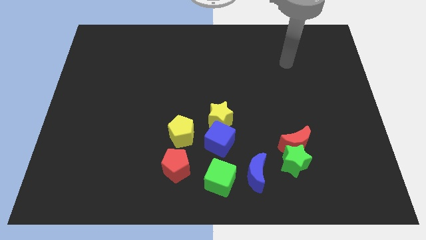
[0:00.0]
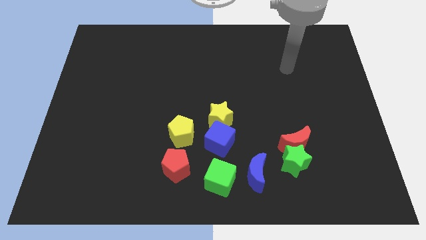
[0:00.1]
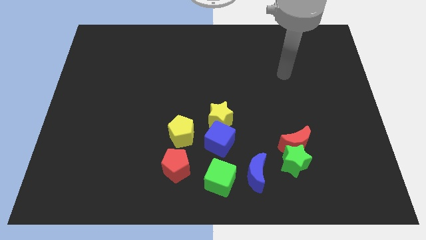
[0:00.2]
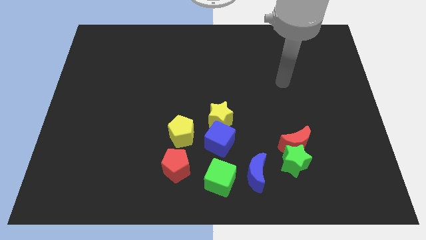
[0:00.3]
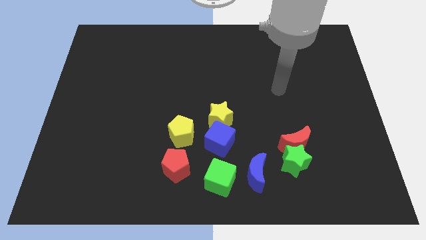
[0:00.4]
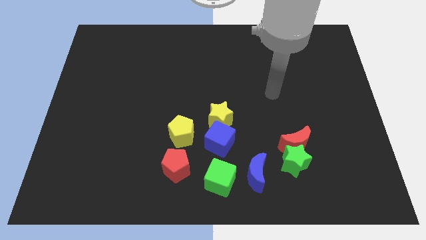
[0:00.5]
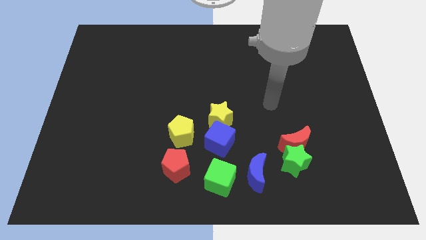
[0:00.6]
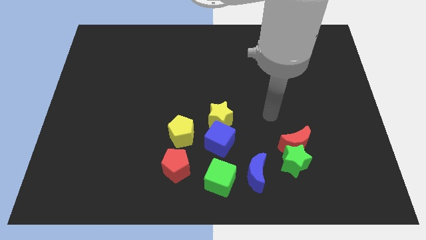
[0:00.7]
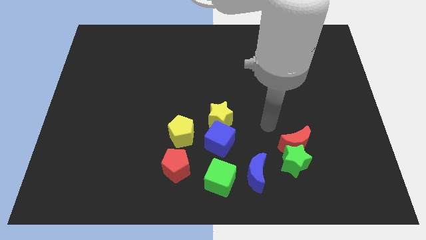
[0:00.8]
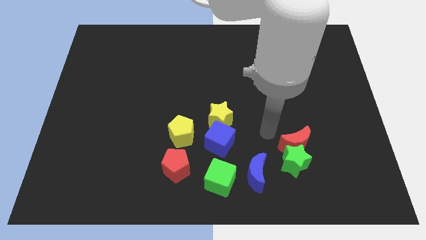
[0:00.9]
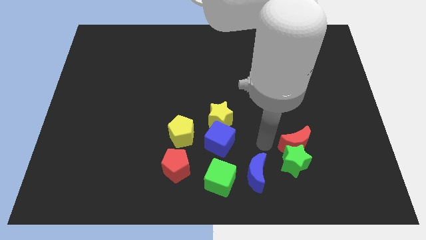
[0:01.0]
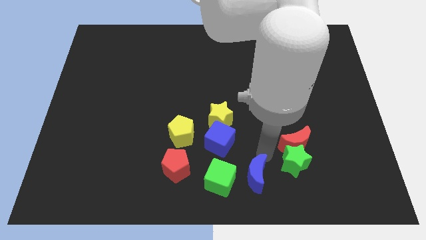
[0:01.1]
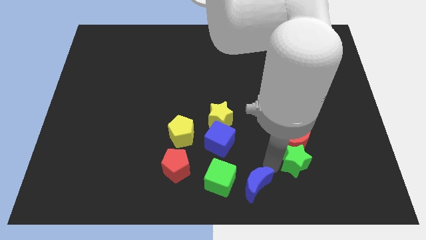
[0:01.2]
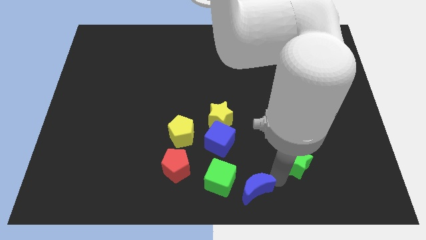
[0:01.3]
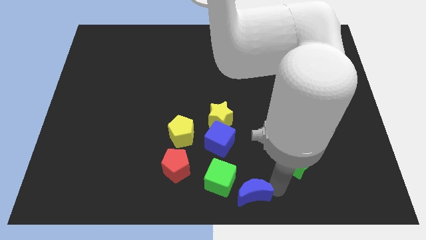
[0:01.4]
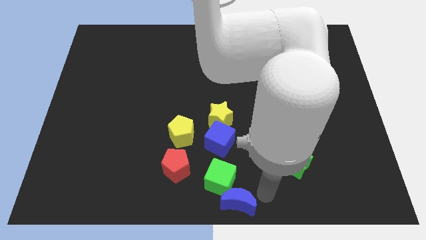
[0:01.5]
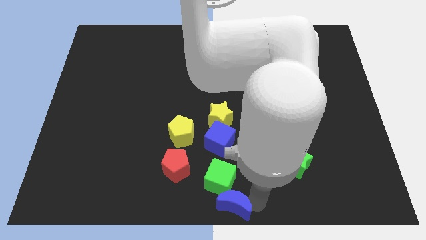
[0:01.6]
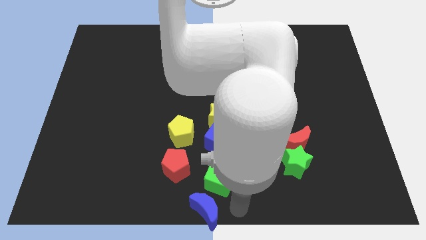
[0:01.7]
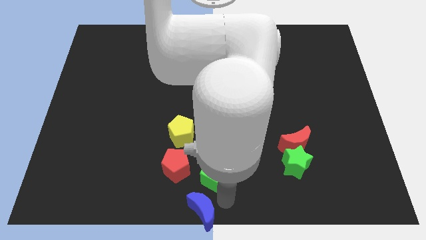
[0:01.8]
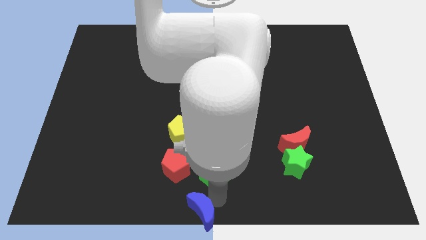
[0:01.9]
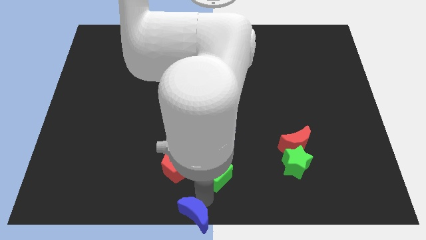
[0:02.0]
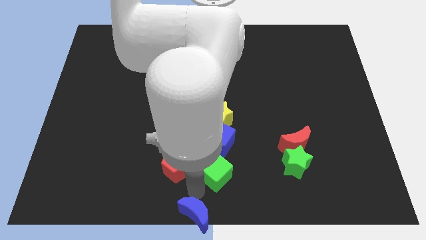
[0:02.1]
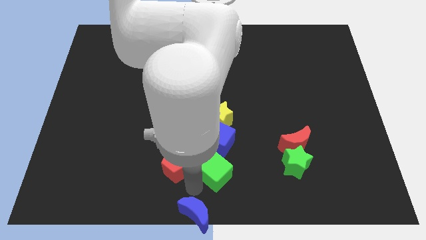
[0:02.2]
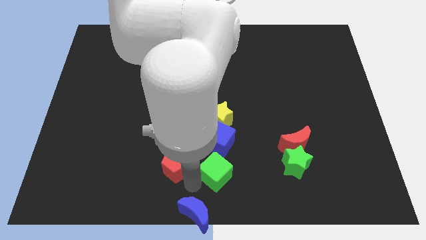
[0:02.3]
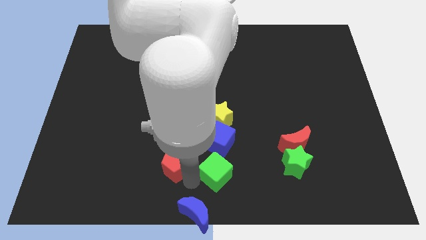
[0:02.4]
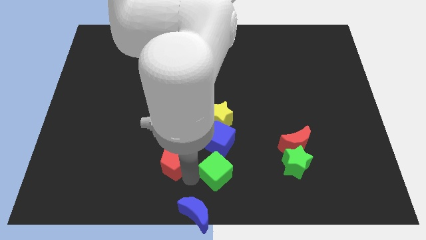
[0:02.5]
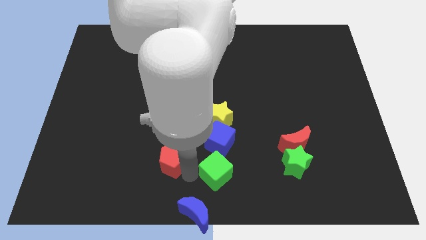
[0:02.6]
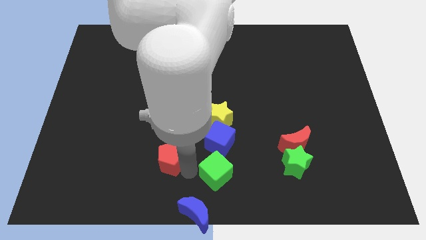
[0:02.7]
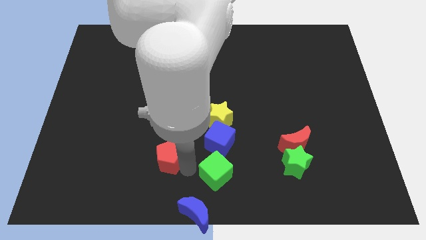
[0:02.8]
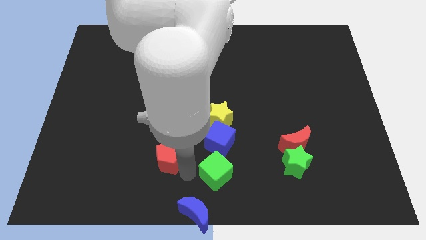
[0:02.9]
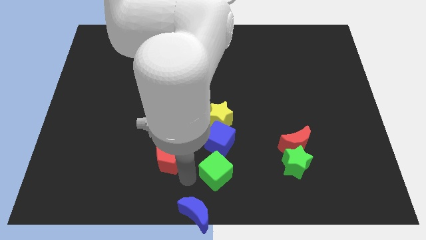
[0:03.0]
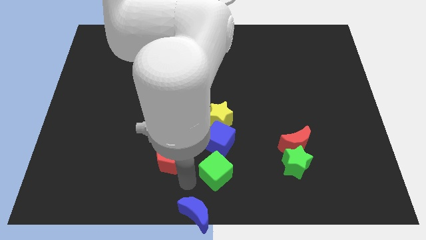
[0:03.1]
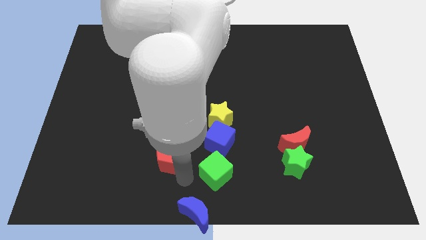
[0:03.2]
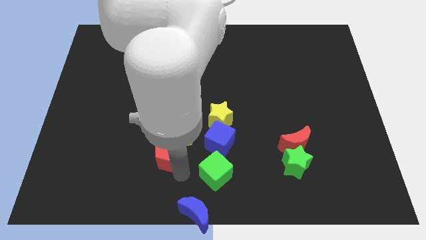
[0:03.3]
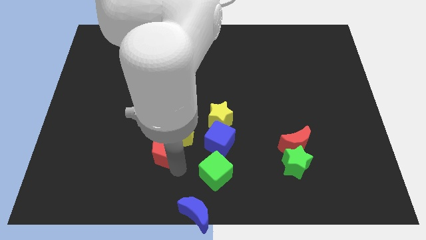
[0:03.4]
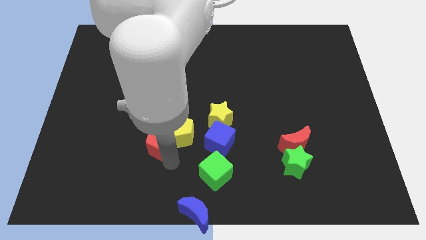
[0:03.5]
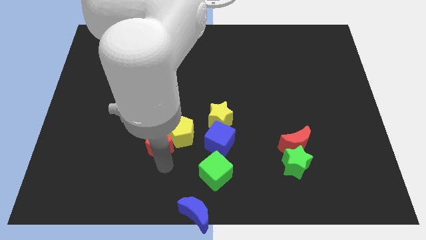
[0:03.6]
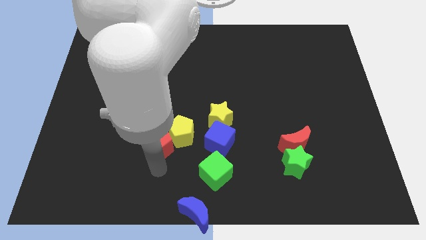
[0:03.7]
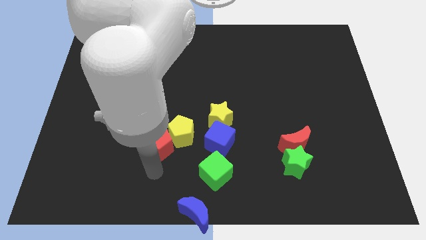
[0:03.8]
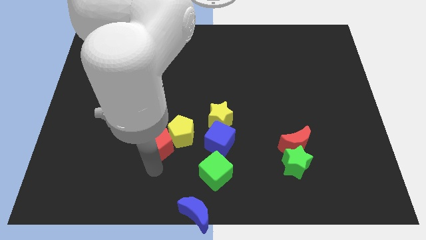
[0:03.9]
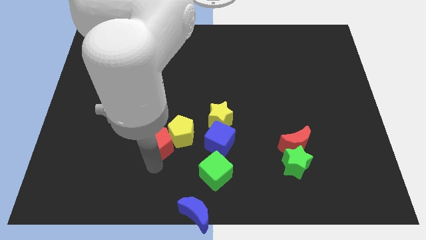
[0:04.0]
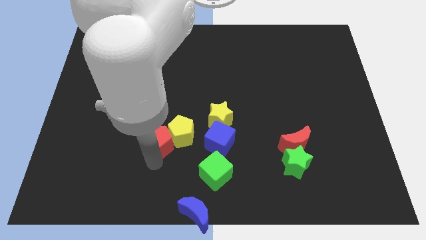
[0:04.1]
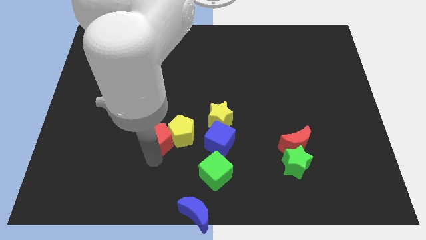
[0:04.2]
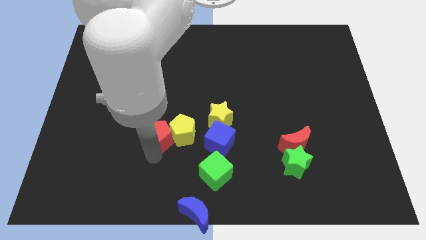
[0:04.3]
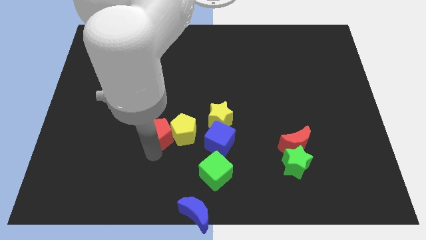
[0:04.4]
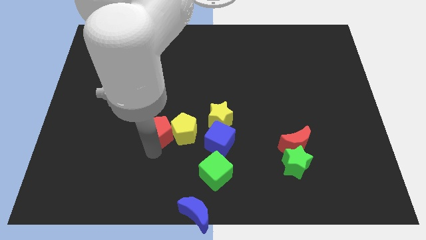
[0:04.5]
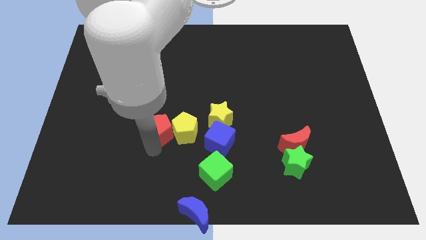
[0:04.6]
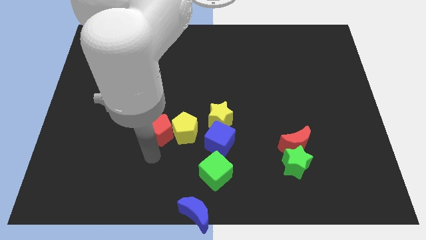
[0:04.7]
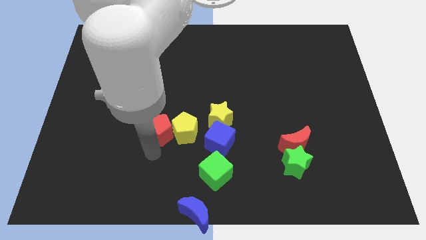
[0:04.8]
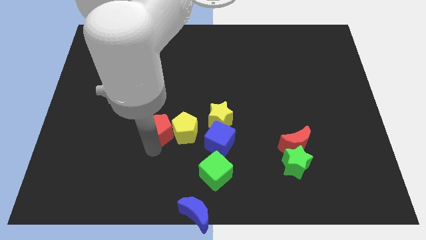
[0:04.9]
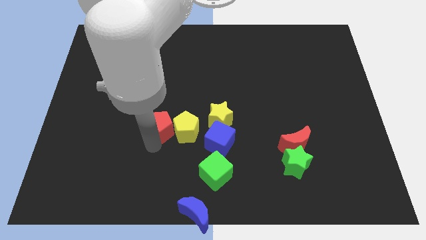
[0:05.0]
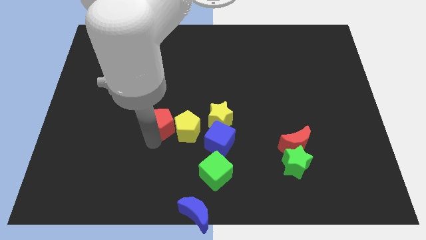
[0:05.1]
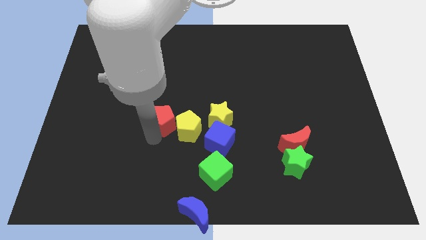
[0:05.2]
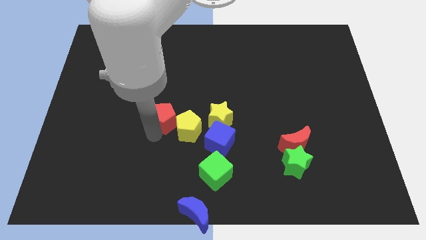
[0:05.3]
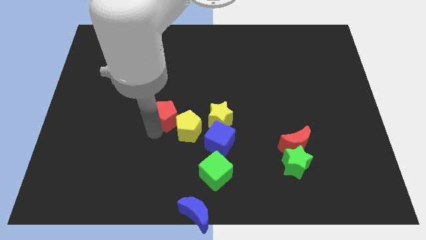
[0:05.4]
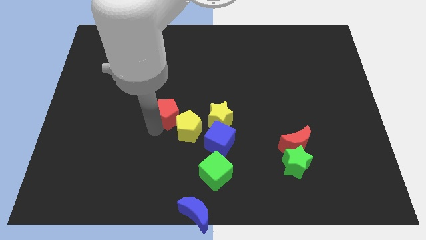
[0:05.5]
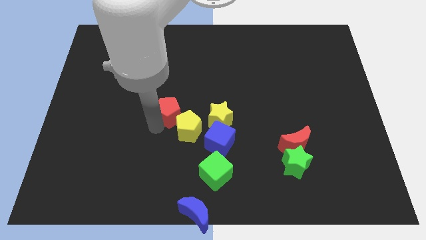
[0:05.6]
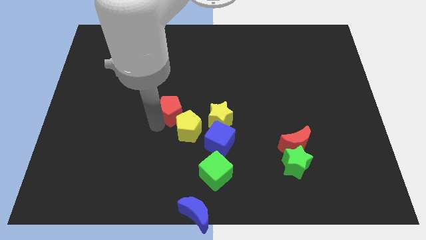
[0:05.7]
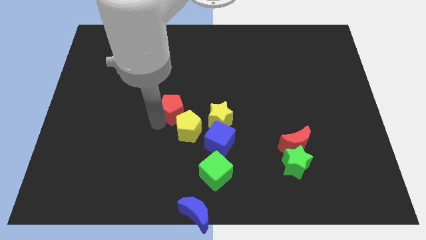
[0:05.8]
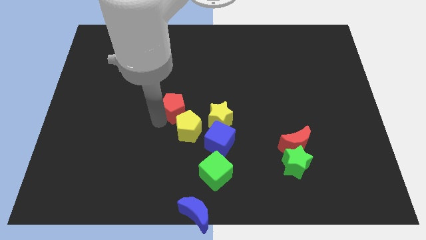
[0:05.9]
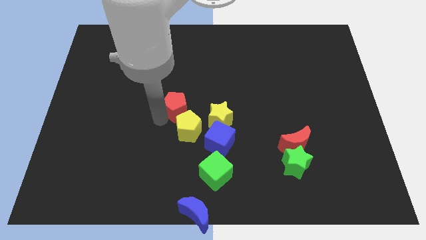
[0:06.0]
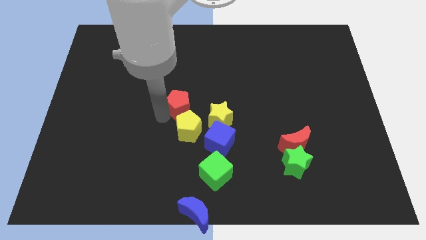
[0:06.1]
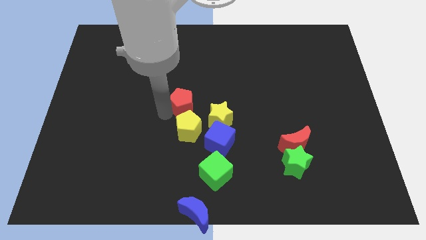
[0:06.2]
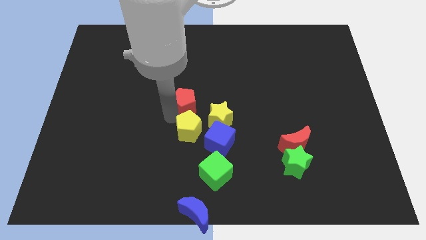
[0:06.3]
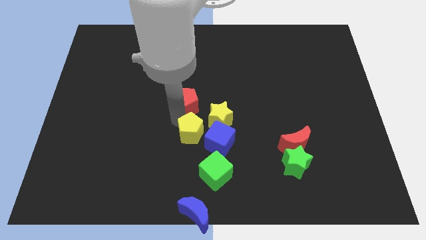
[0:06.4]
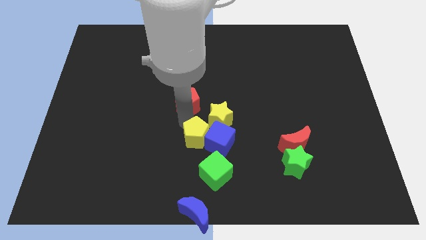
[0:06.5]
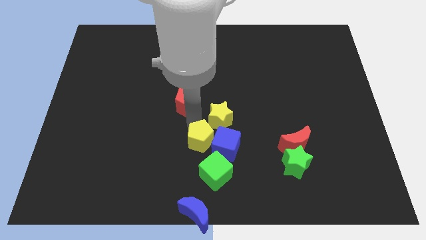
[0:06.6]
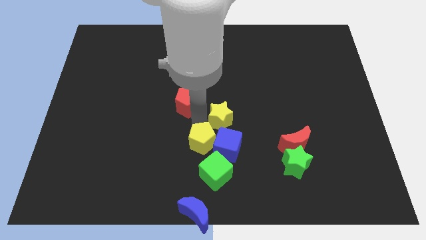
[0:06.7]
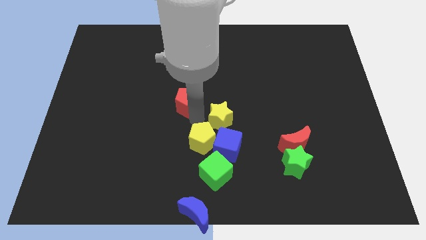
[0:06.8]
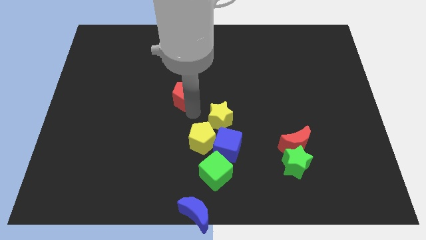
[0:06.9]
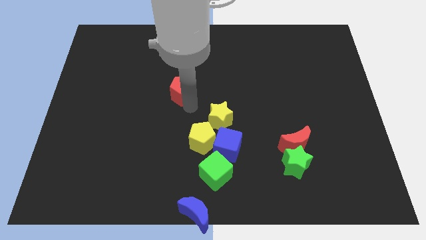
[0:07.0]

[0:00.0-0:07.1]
move the red pentagon upwards

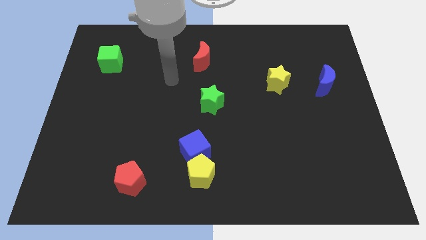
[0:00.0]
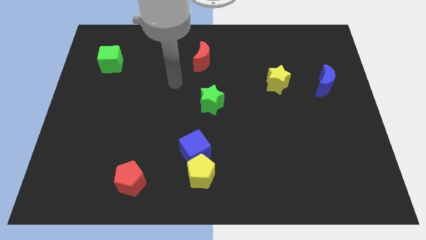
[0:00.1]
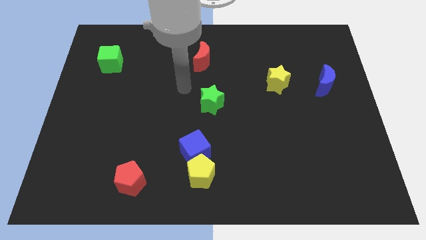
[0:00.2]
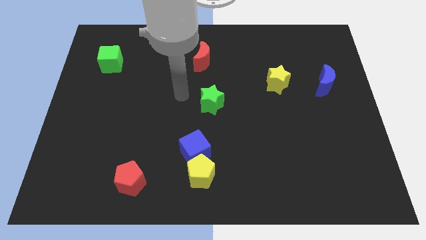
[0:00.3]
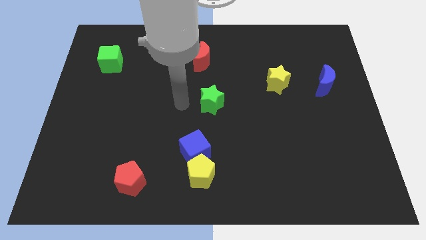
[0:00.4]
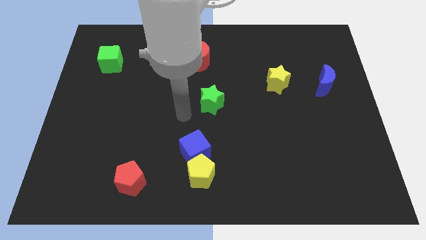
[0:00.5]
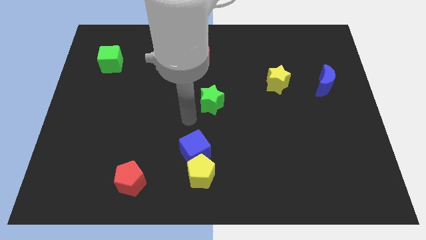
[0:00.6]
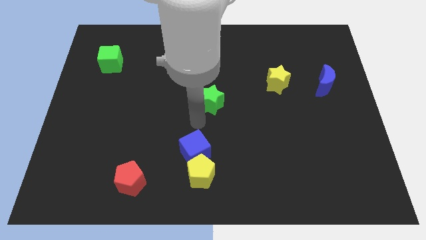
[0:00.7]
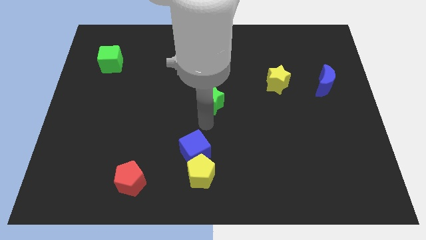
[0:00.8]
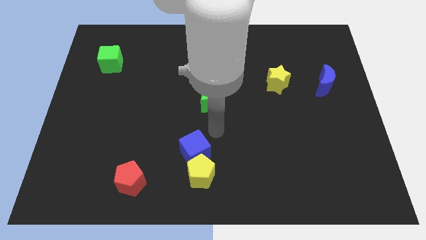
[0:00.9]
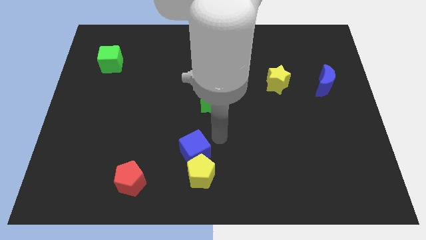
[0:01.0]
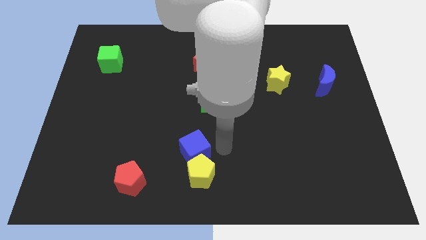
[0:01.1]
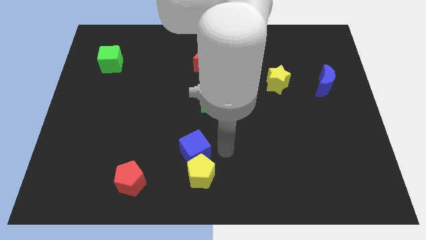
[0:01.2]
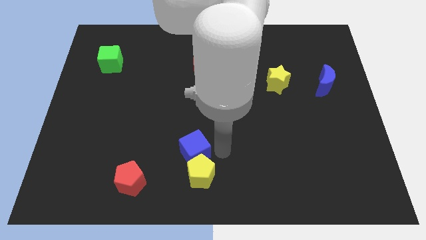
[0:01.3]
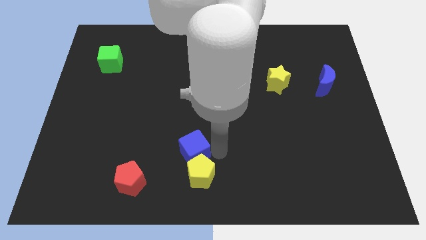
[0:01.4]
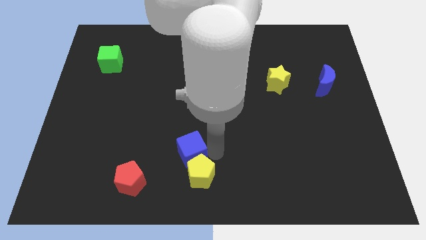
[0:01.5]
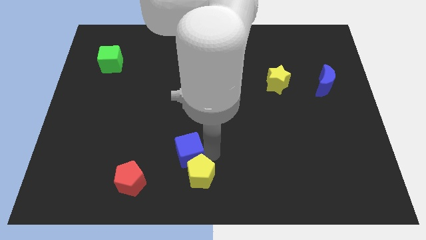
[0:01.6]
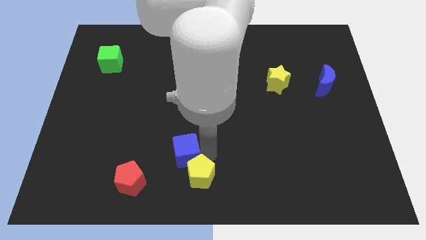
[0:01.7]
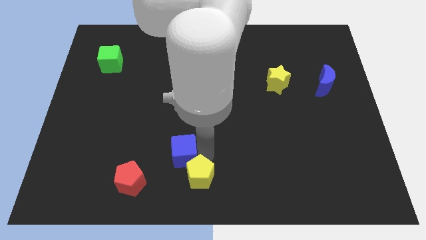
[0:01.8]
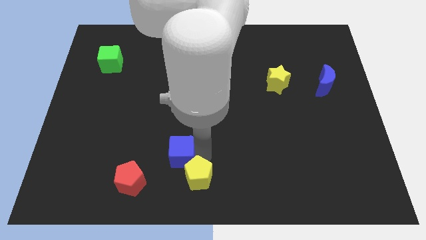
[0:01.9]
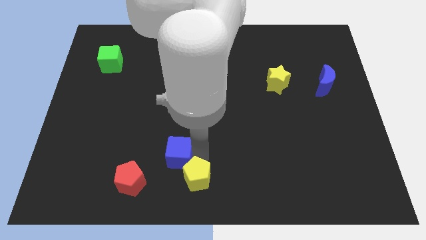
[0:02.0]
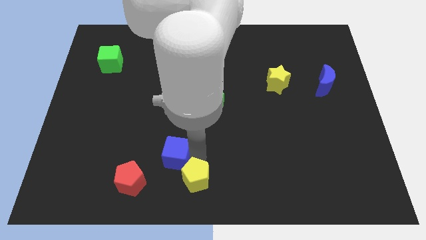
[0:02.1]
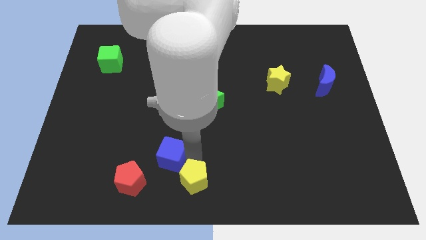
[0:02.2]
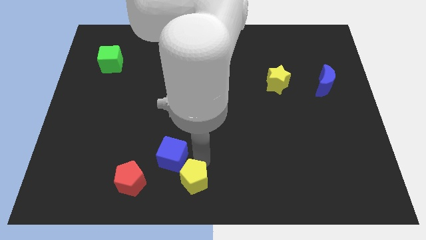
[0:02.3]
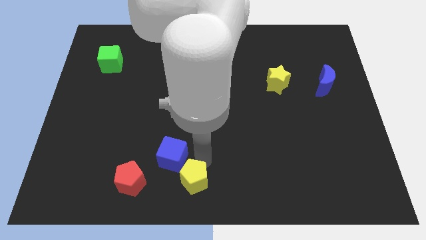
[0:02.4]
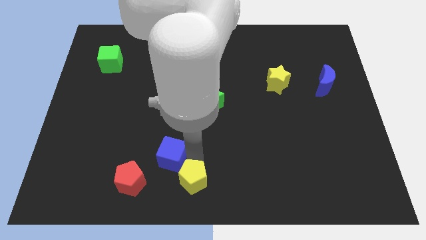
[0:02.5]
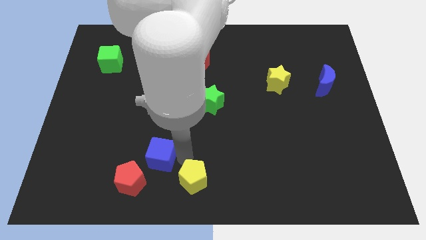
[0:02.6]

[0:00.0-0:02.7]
slightly move the blue cube to the left
